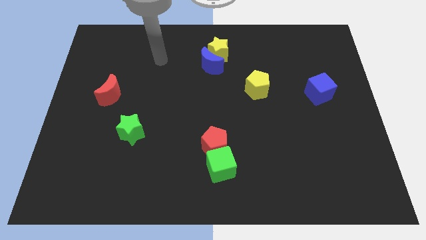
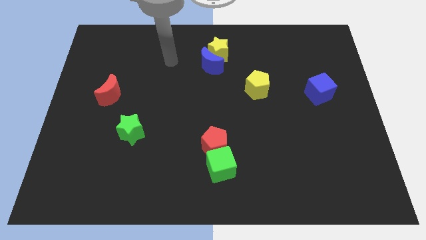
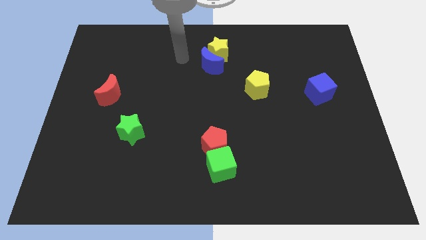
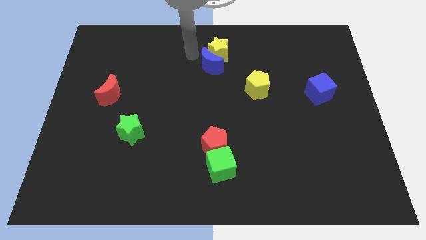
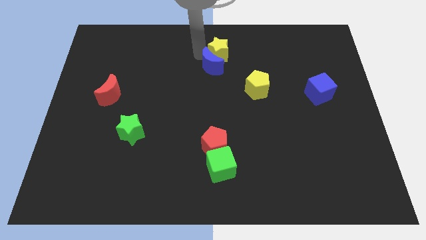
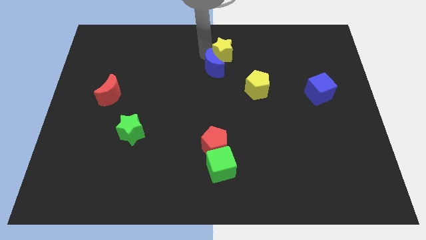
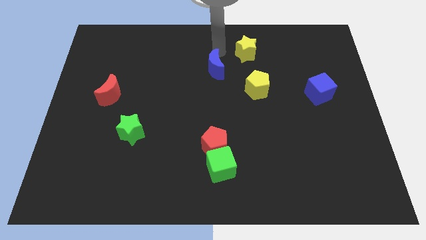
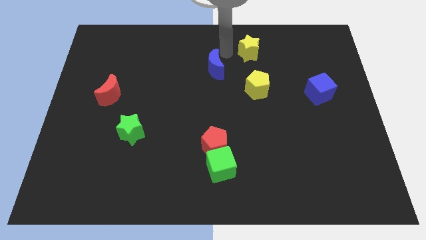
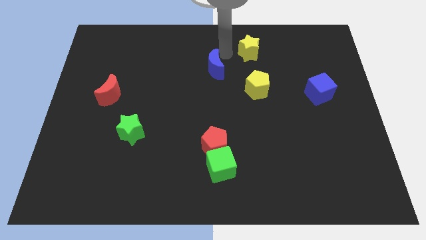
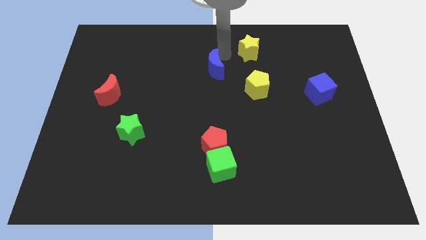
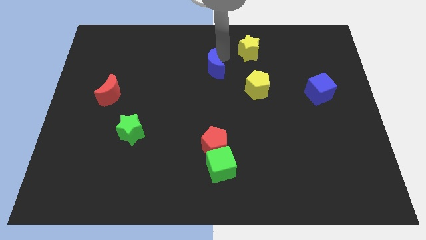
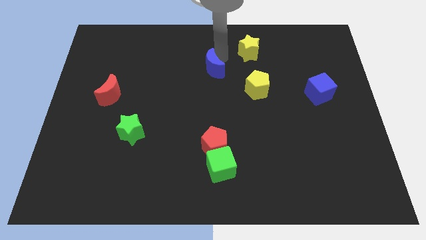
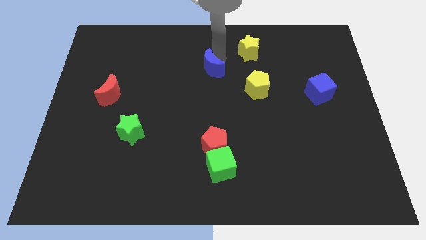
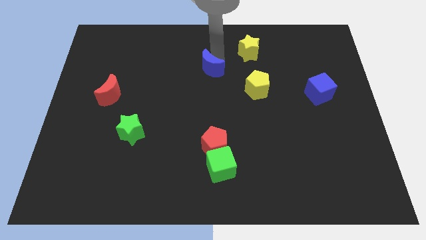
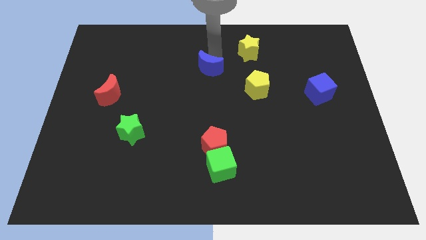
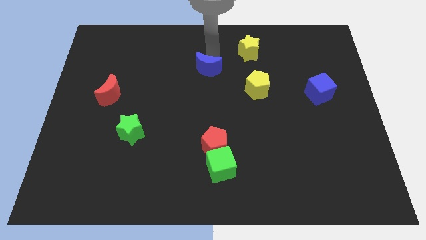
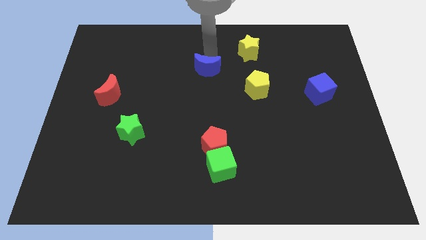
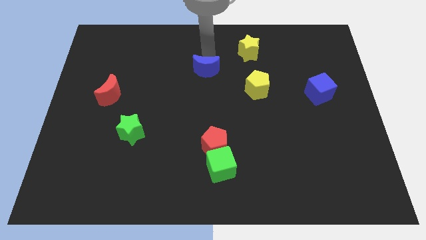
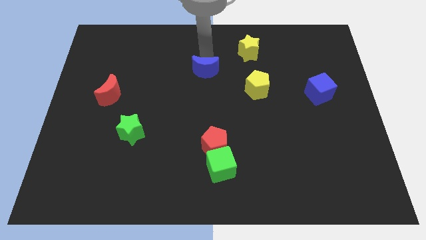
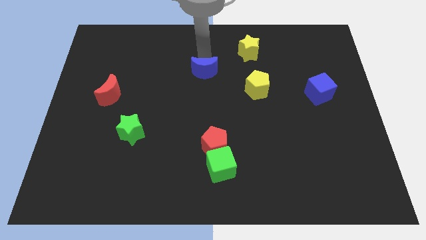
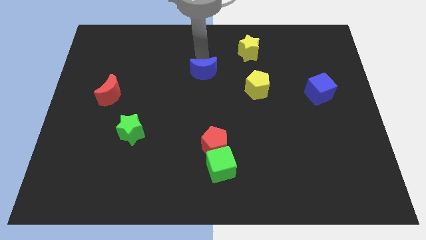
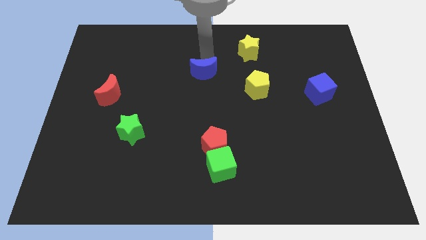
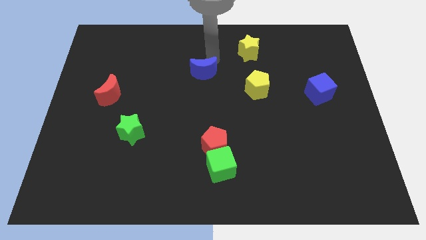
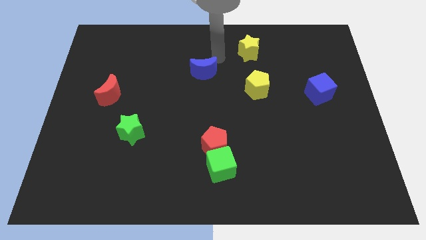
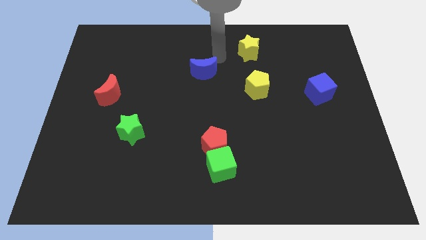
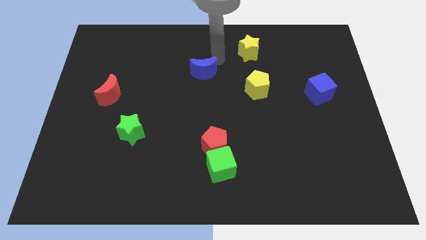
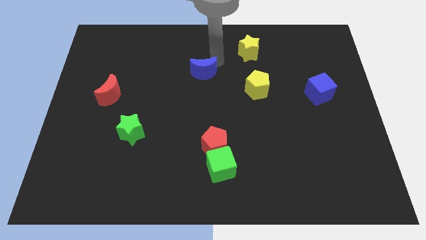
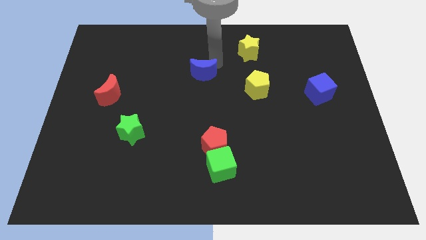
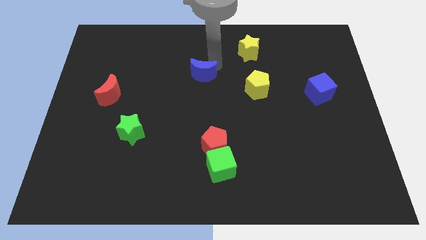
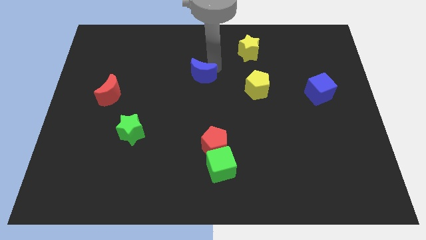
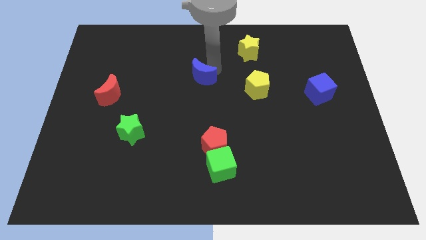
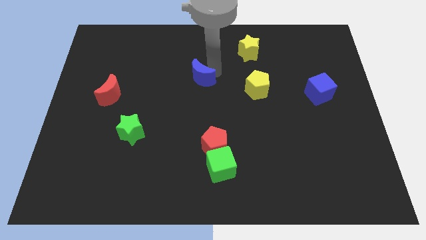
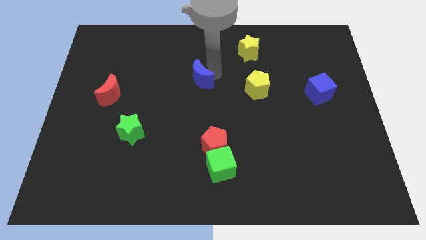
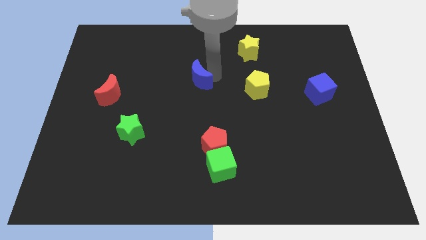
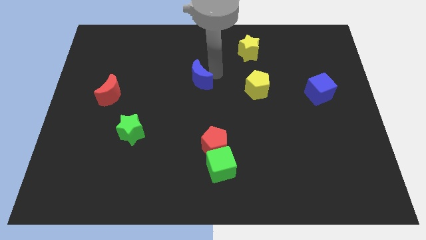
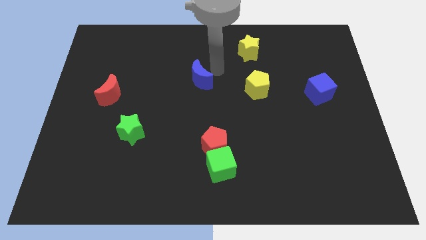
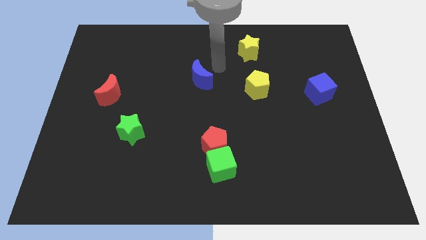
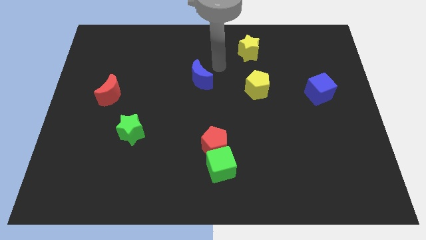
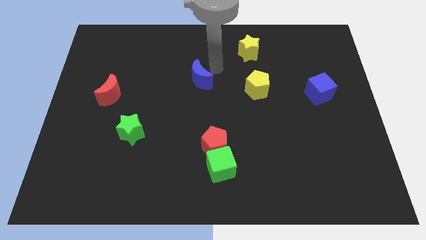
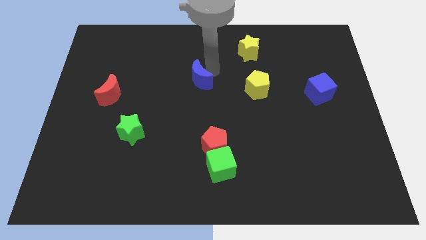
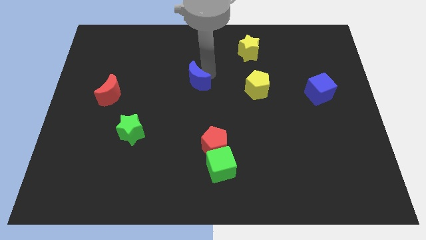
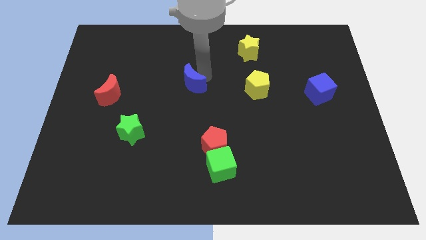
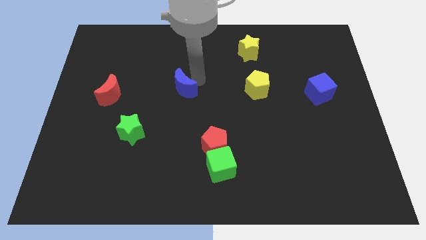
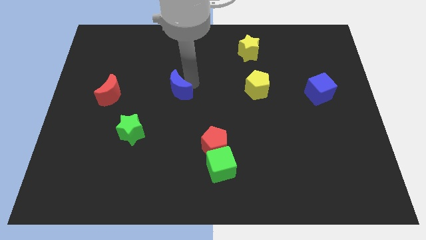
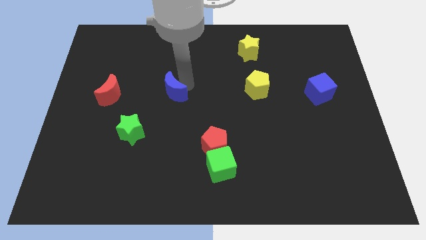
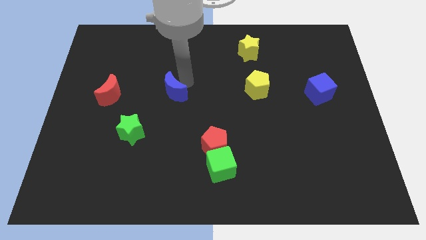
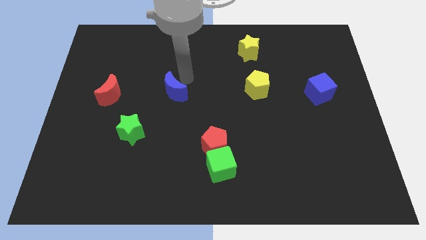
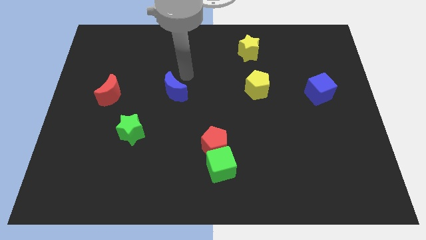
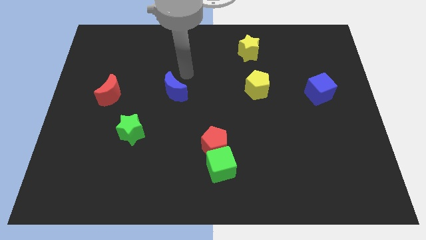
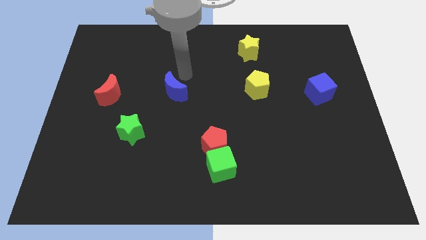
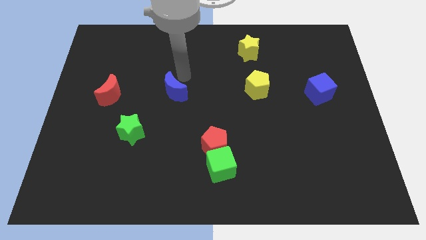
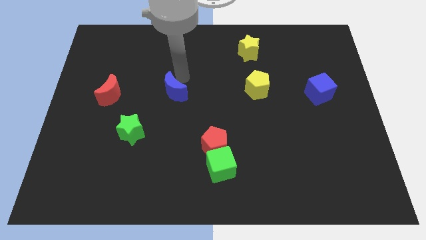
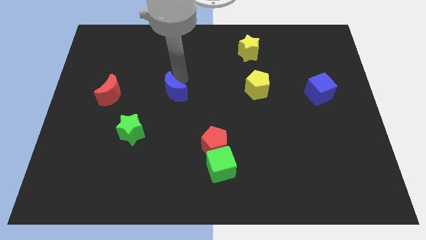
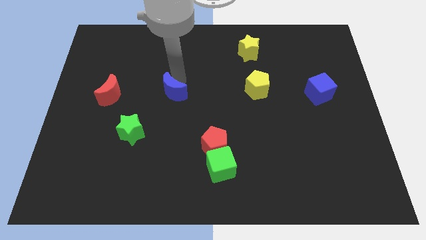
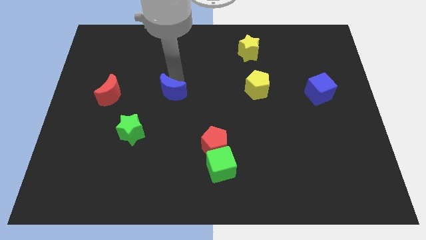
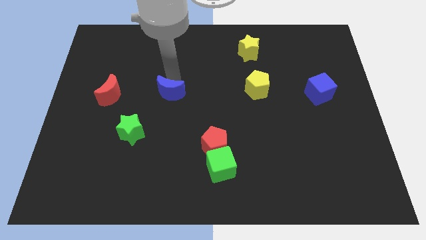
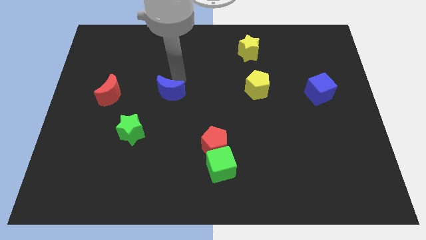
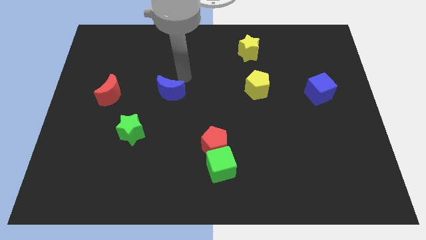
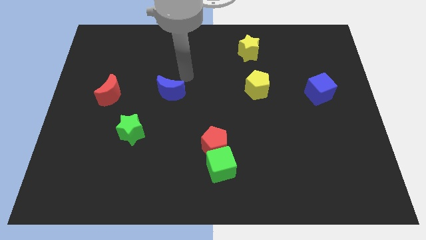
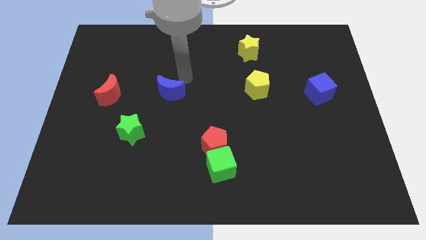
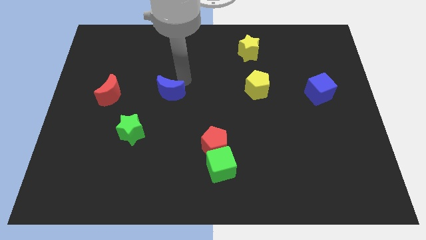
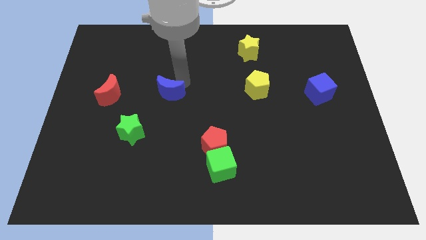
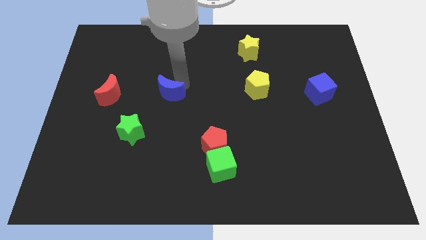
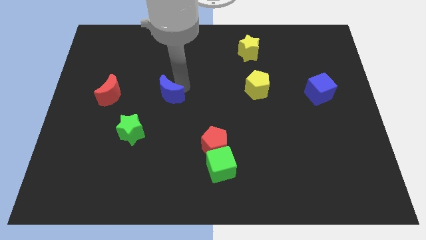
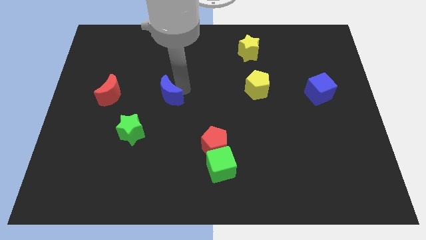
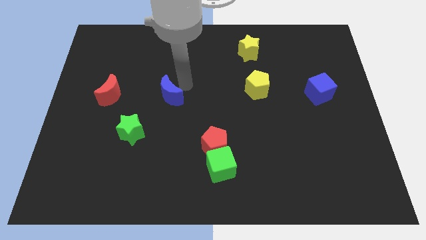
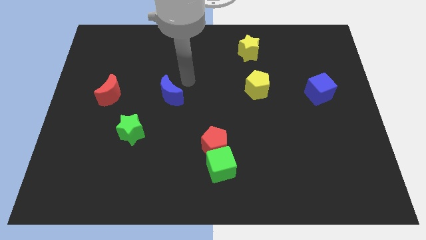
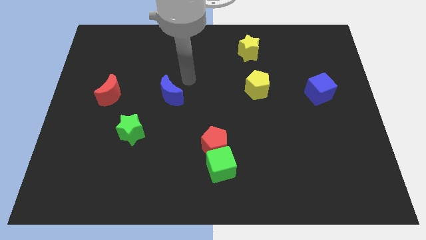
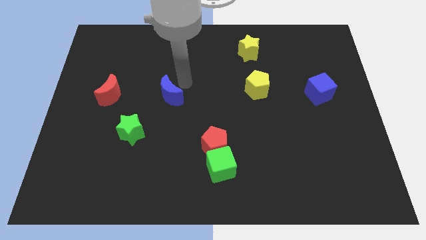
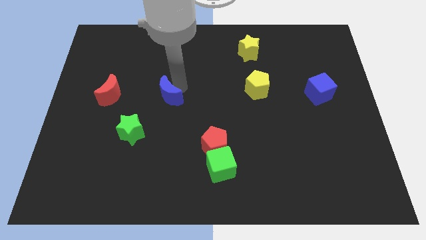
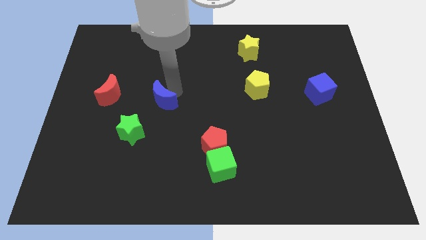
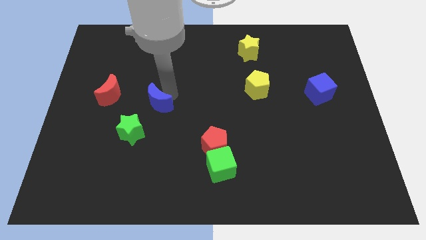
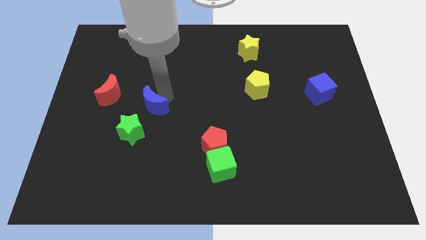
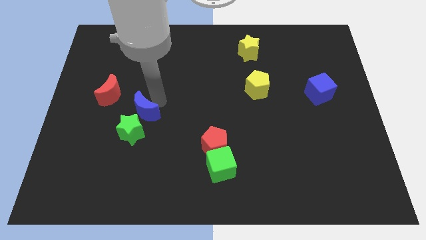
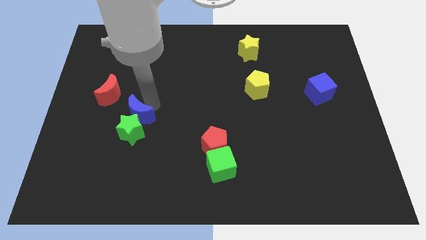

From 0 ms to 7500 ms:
push the blue moon next to the green star
